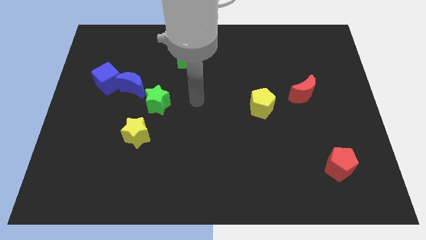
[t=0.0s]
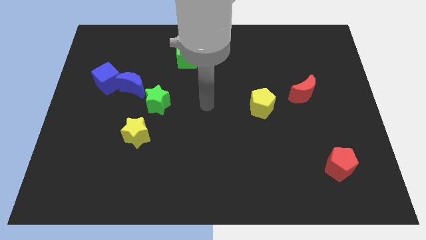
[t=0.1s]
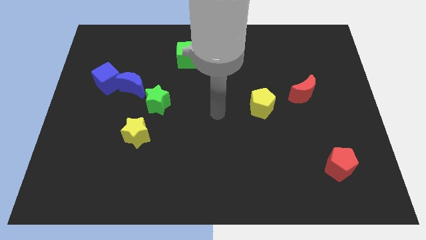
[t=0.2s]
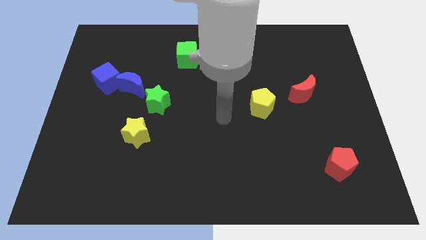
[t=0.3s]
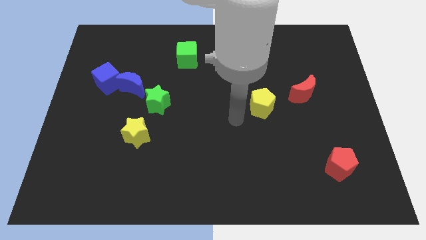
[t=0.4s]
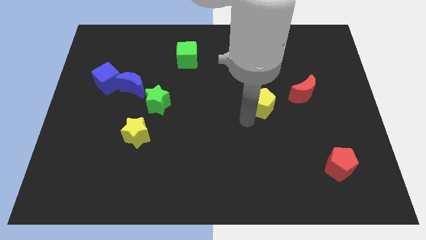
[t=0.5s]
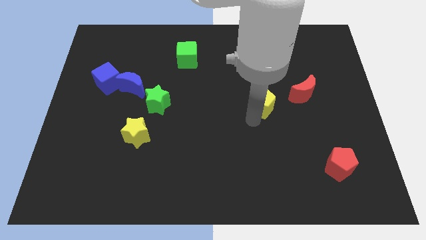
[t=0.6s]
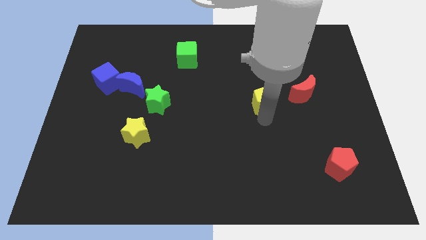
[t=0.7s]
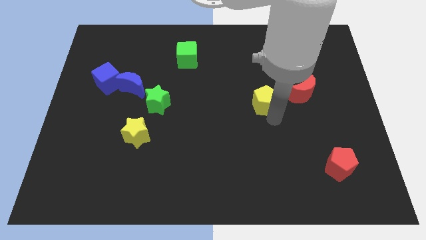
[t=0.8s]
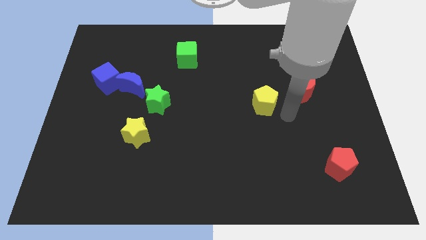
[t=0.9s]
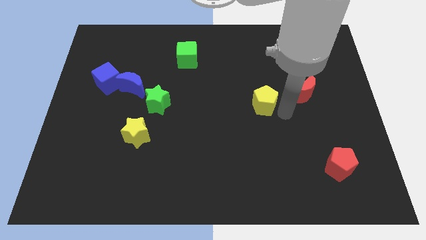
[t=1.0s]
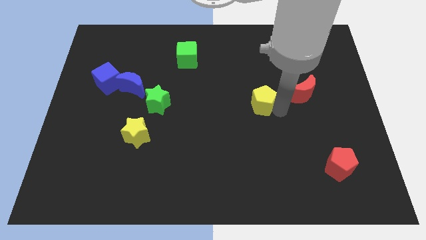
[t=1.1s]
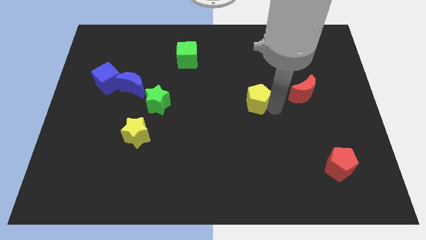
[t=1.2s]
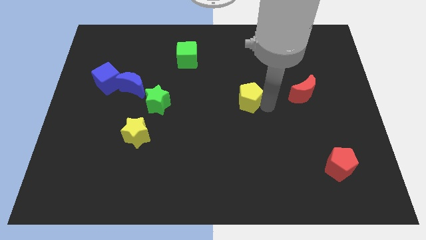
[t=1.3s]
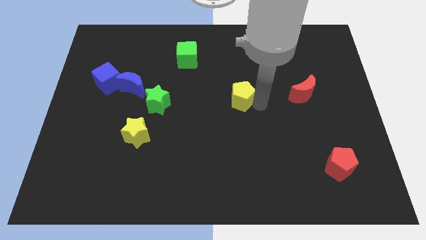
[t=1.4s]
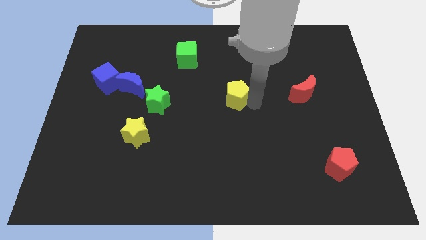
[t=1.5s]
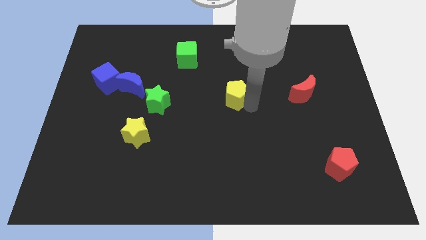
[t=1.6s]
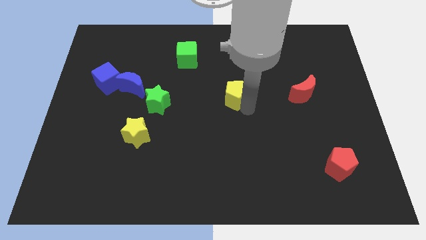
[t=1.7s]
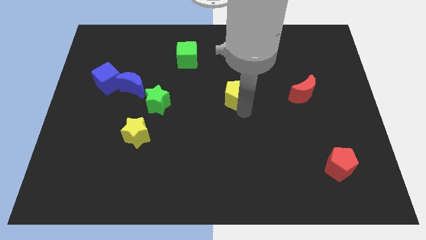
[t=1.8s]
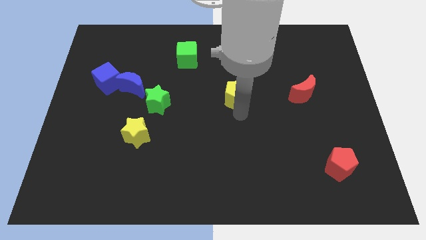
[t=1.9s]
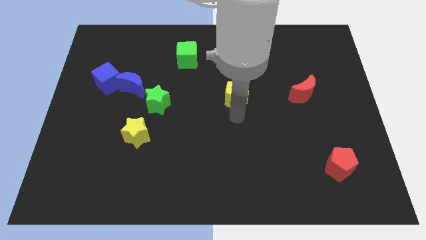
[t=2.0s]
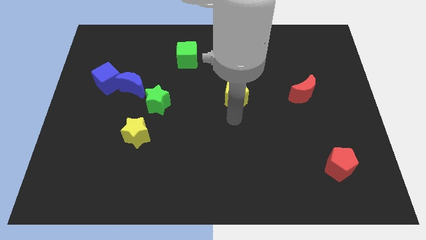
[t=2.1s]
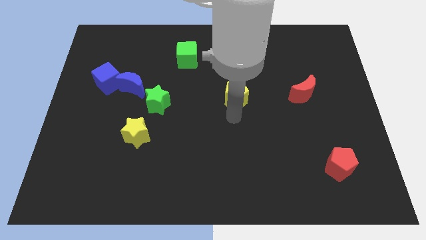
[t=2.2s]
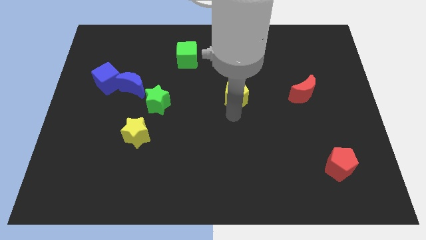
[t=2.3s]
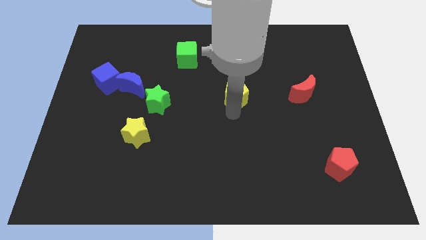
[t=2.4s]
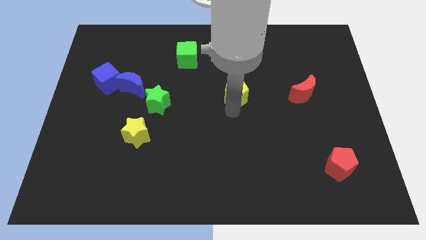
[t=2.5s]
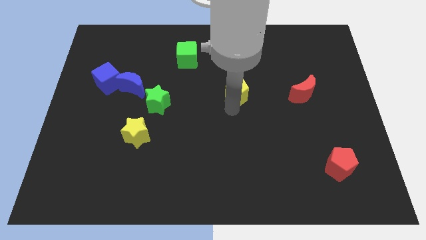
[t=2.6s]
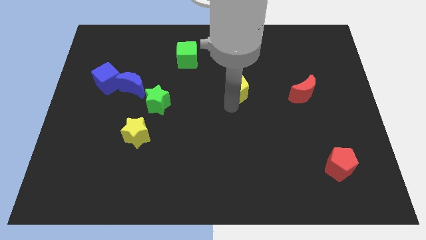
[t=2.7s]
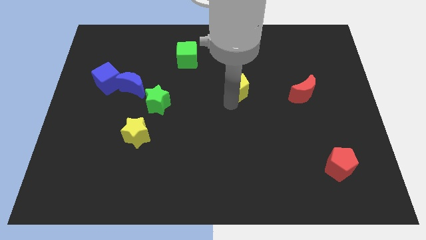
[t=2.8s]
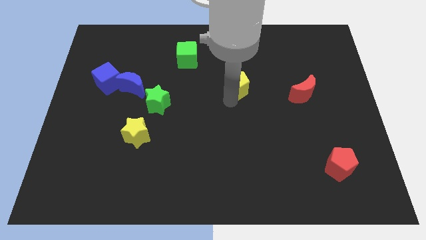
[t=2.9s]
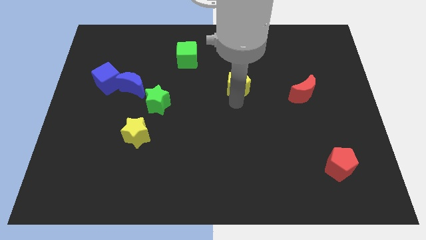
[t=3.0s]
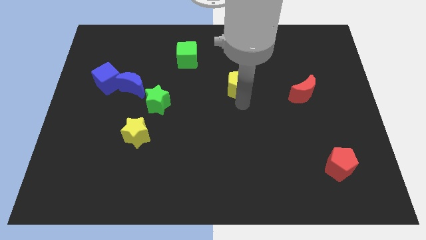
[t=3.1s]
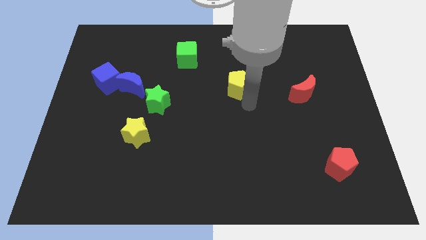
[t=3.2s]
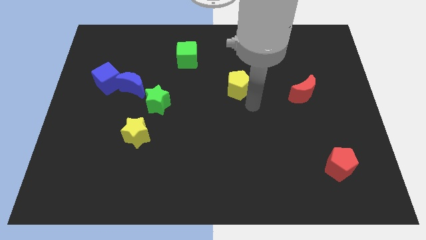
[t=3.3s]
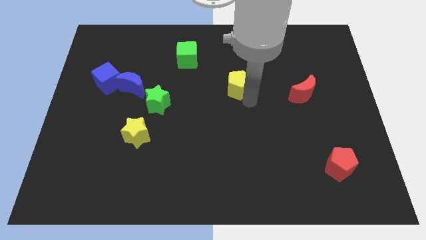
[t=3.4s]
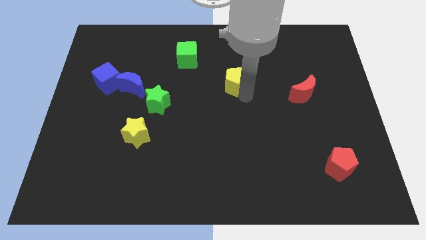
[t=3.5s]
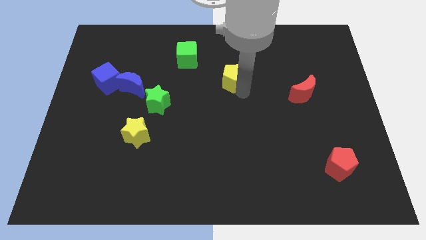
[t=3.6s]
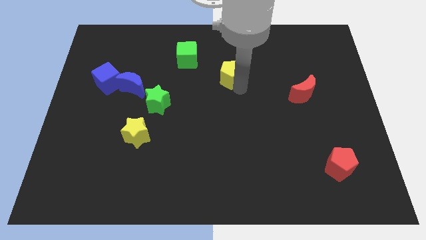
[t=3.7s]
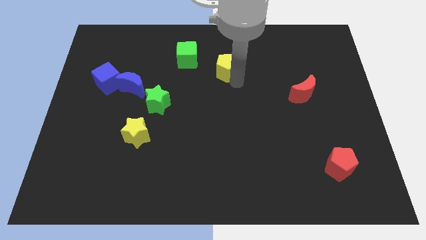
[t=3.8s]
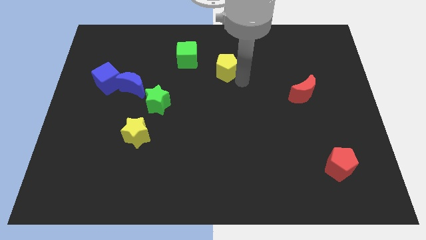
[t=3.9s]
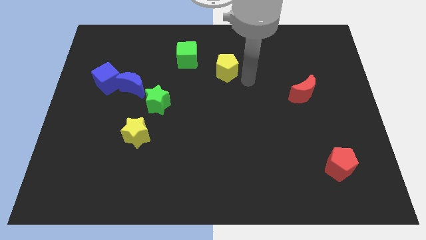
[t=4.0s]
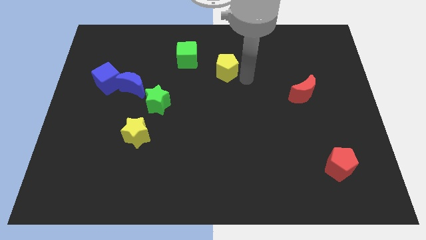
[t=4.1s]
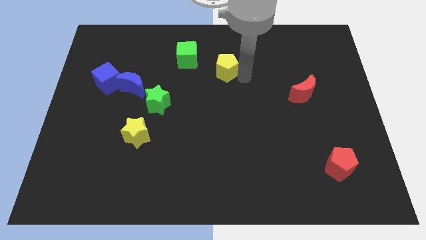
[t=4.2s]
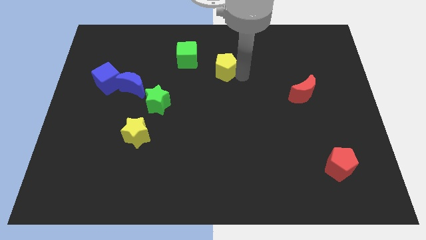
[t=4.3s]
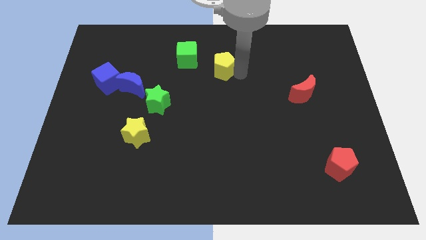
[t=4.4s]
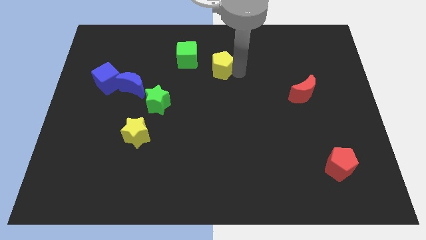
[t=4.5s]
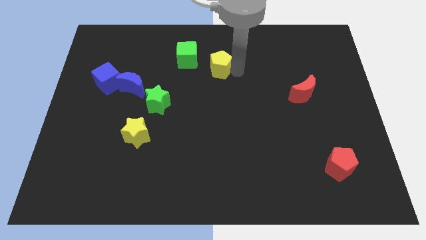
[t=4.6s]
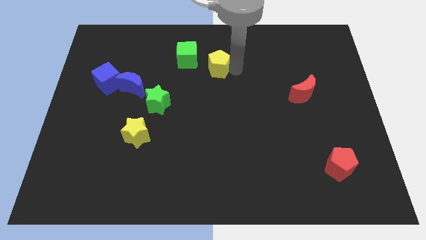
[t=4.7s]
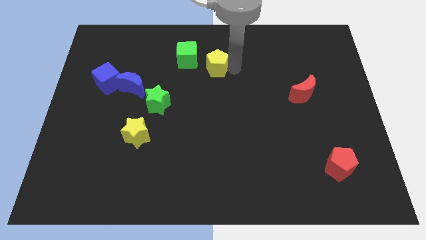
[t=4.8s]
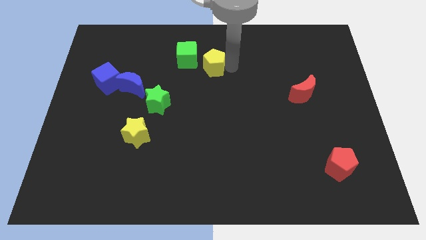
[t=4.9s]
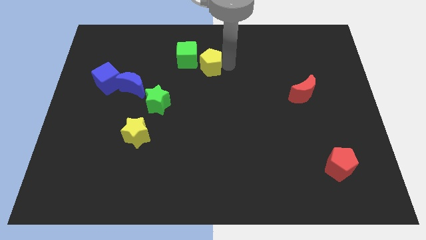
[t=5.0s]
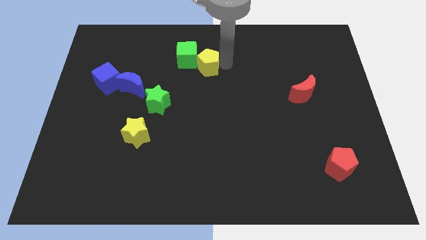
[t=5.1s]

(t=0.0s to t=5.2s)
push the yellow pentagon to the green cube

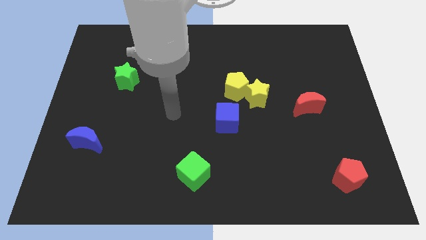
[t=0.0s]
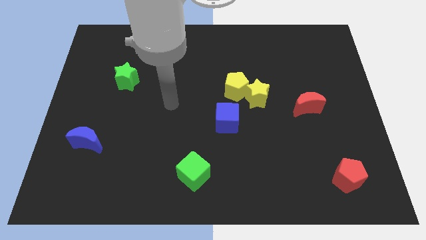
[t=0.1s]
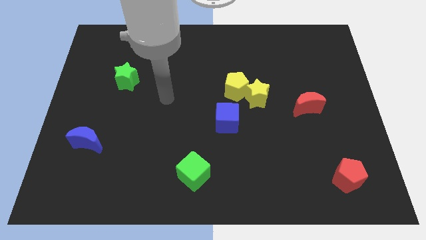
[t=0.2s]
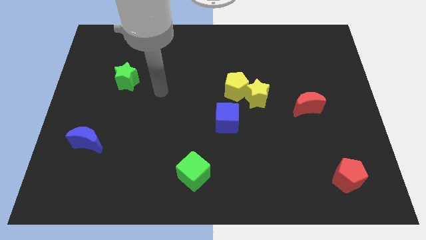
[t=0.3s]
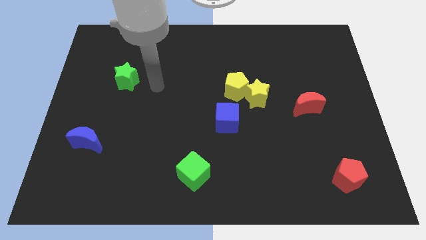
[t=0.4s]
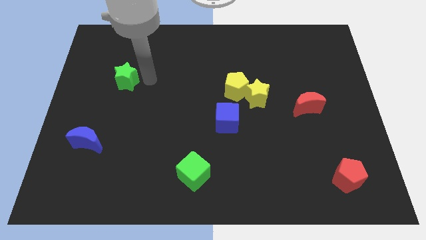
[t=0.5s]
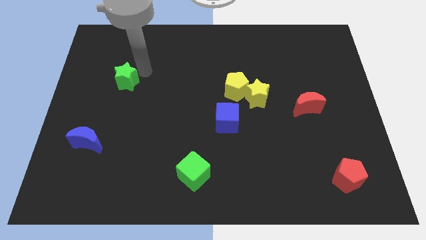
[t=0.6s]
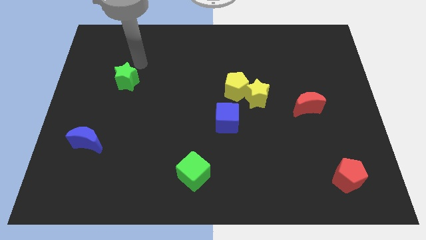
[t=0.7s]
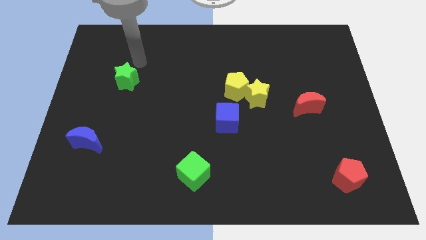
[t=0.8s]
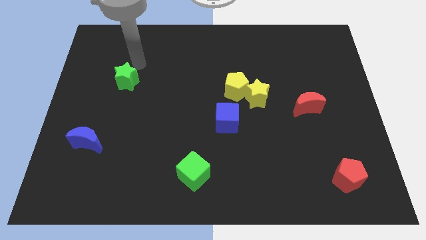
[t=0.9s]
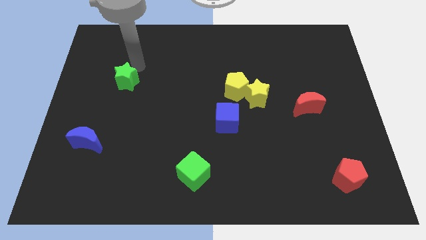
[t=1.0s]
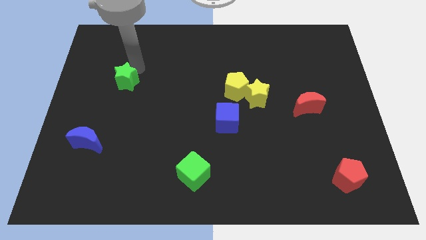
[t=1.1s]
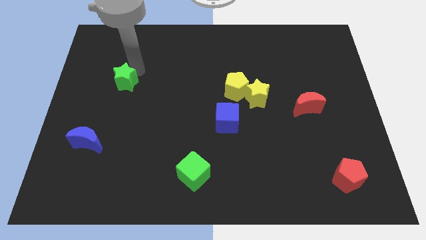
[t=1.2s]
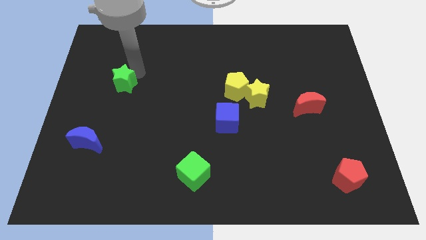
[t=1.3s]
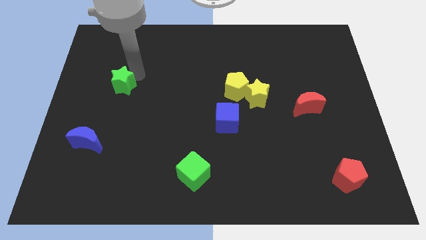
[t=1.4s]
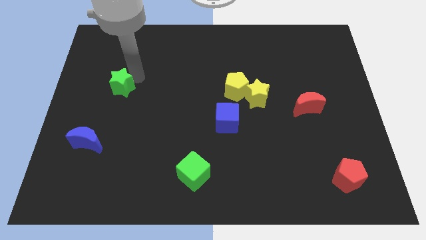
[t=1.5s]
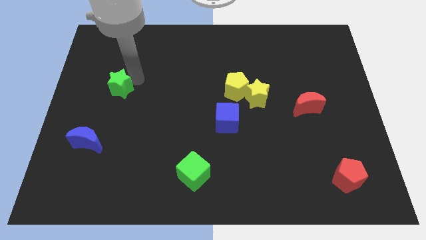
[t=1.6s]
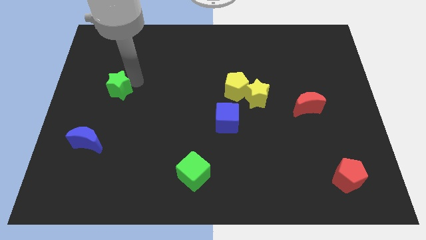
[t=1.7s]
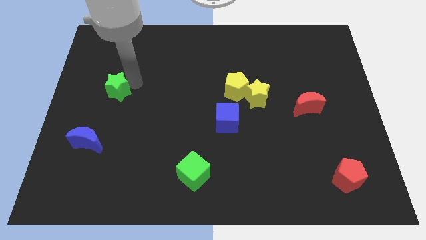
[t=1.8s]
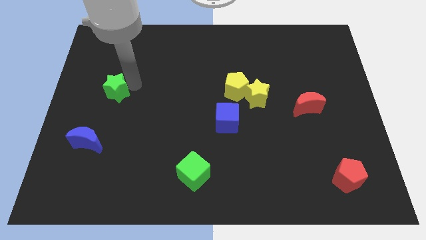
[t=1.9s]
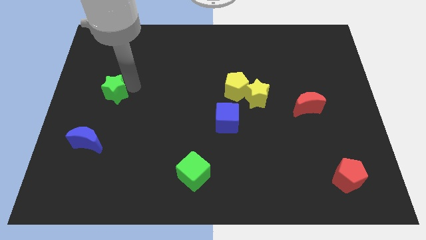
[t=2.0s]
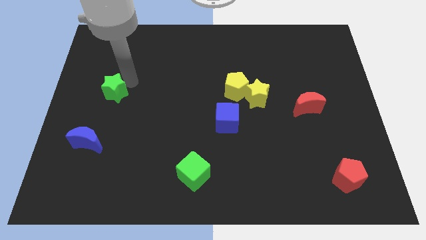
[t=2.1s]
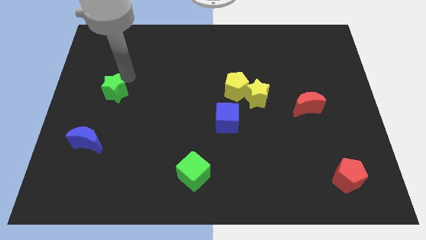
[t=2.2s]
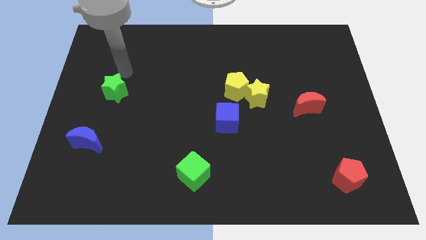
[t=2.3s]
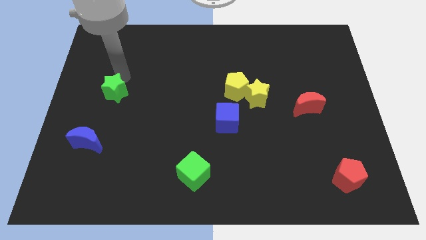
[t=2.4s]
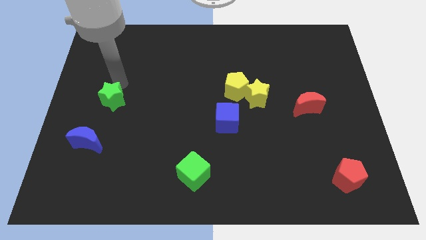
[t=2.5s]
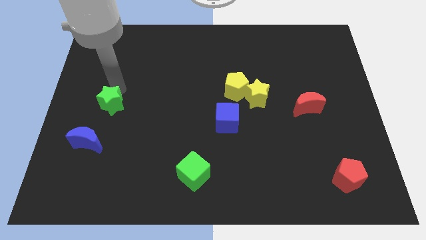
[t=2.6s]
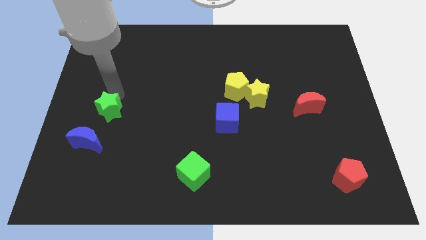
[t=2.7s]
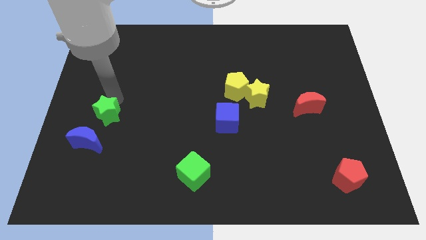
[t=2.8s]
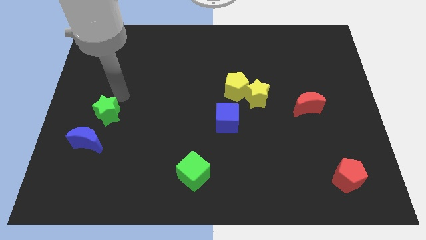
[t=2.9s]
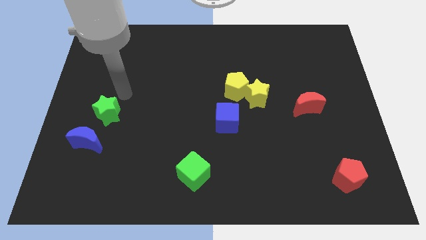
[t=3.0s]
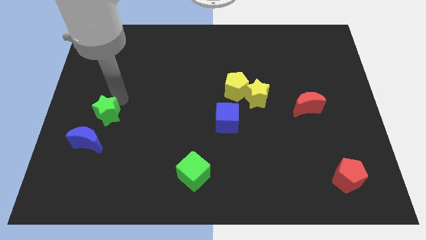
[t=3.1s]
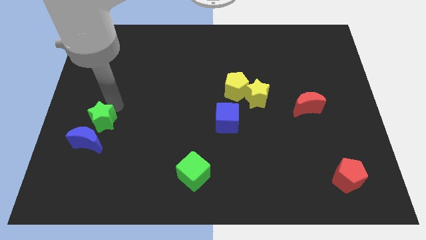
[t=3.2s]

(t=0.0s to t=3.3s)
push the green star close to the blue moon
